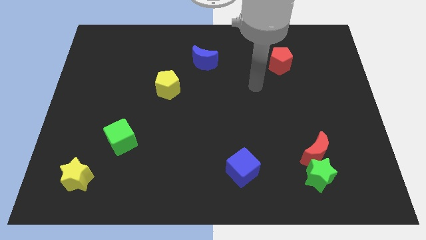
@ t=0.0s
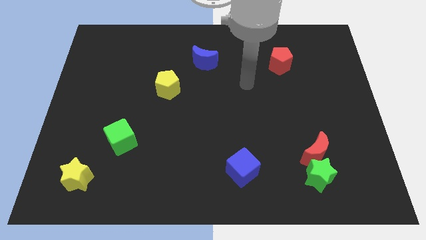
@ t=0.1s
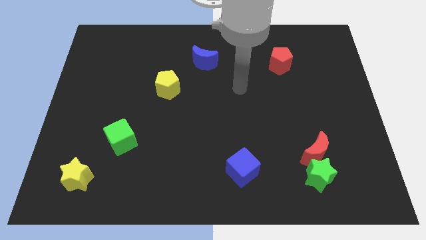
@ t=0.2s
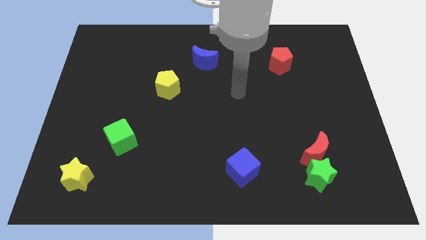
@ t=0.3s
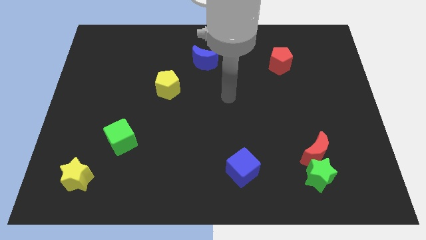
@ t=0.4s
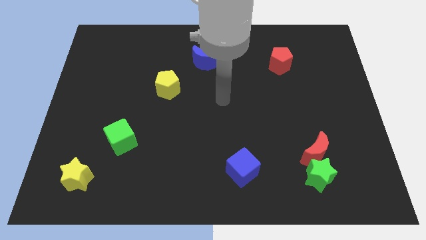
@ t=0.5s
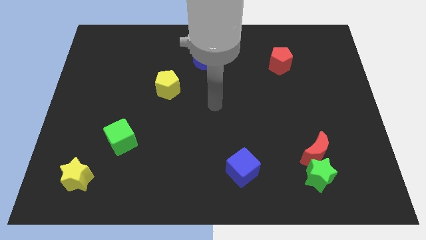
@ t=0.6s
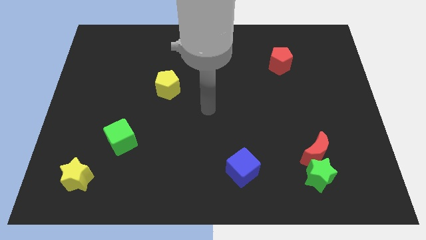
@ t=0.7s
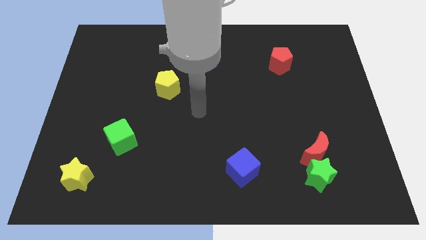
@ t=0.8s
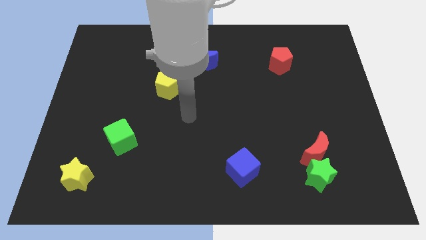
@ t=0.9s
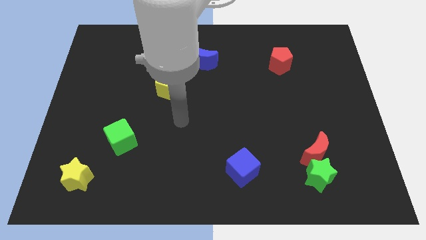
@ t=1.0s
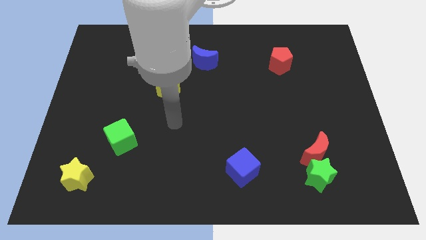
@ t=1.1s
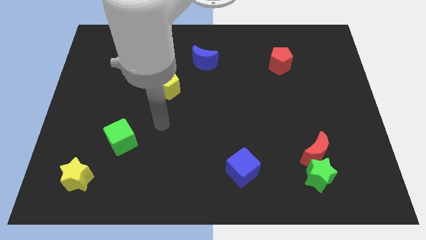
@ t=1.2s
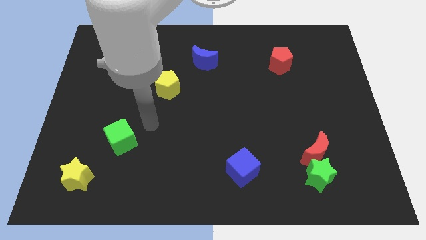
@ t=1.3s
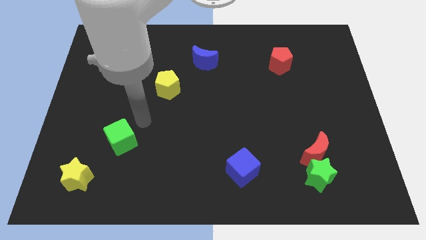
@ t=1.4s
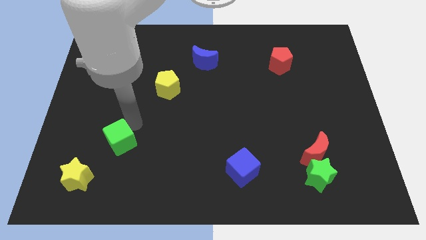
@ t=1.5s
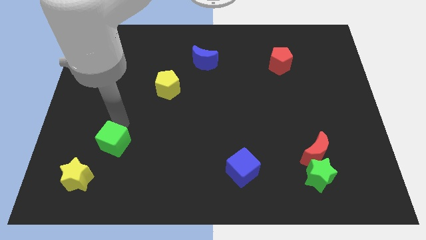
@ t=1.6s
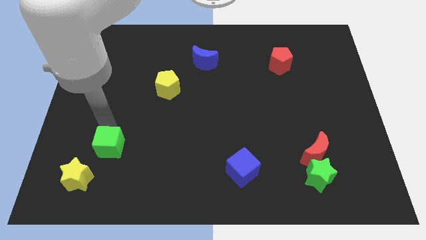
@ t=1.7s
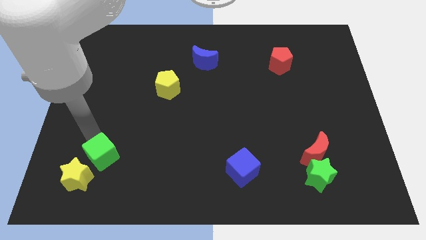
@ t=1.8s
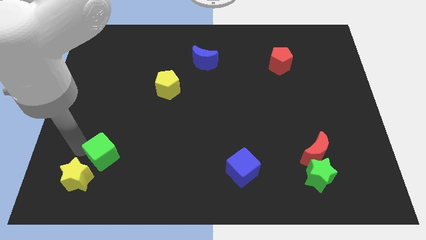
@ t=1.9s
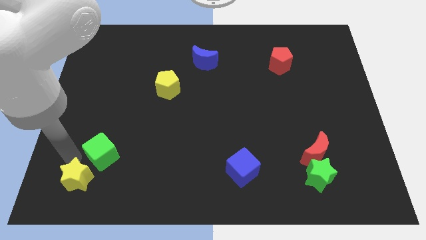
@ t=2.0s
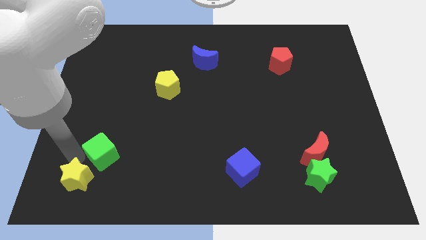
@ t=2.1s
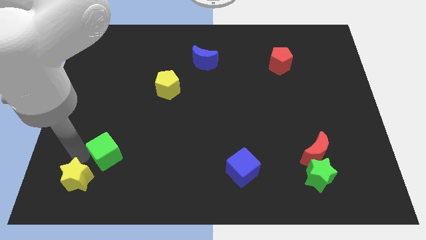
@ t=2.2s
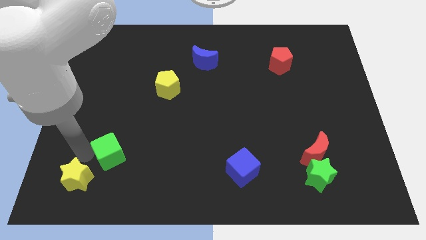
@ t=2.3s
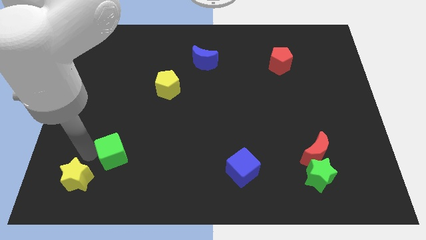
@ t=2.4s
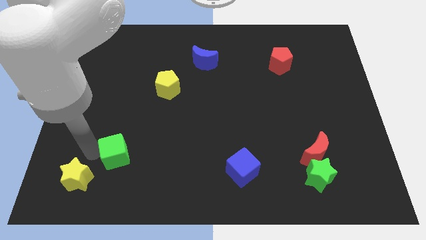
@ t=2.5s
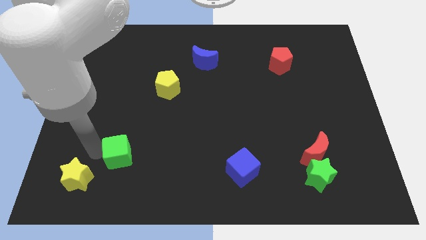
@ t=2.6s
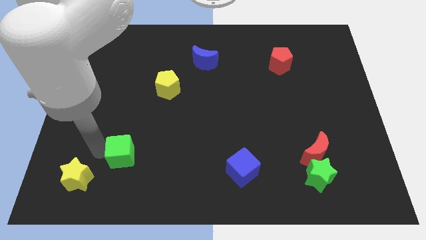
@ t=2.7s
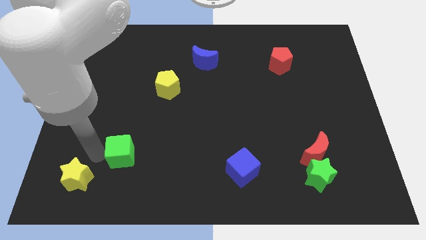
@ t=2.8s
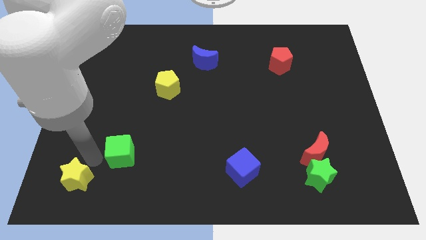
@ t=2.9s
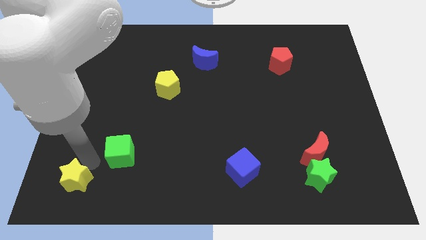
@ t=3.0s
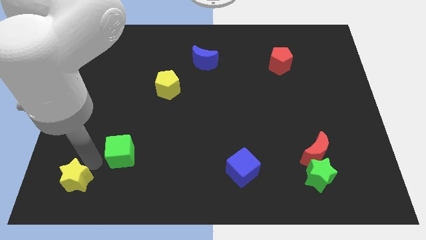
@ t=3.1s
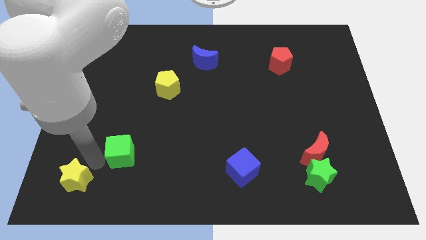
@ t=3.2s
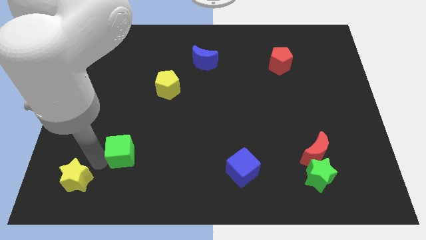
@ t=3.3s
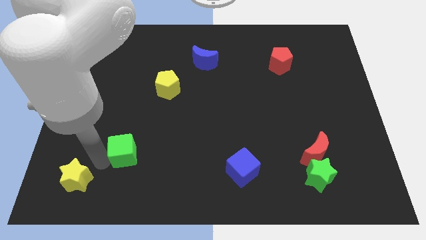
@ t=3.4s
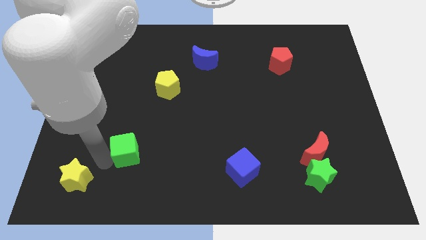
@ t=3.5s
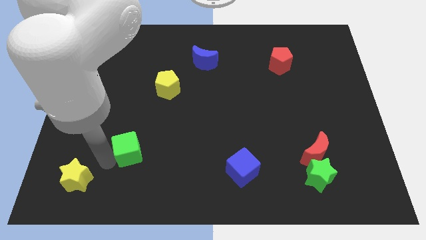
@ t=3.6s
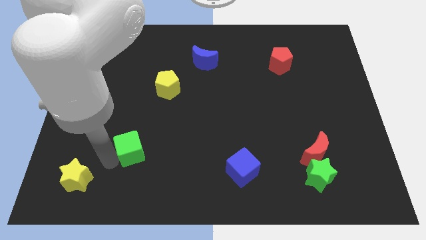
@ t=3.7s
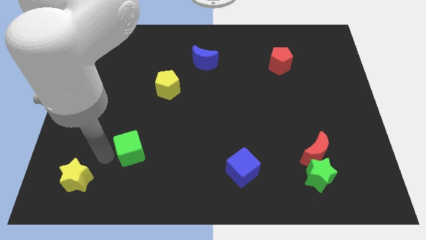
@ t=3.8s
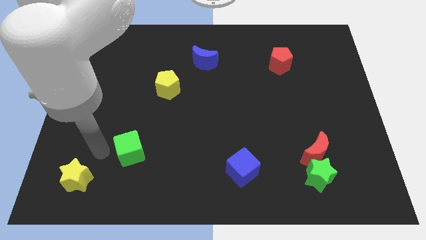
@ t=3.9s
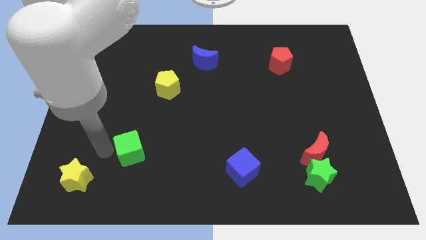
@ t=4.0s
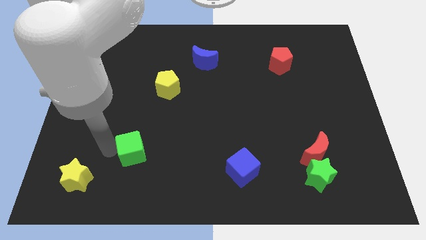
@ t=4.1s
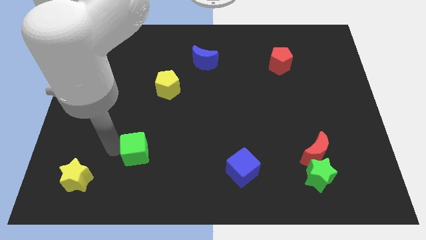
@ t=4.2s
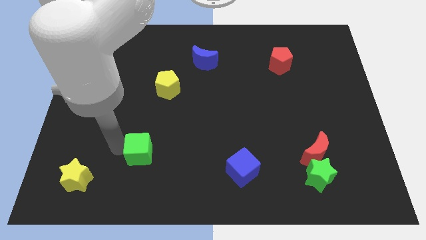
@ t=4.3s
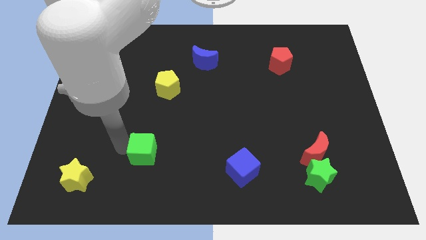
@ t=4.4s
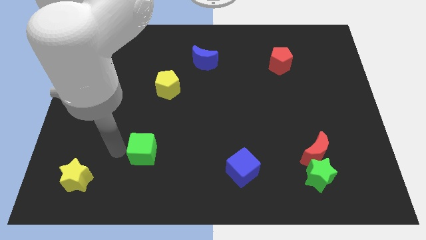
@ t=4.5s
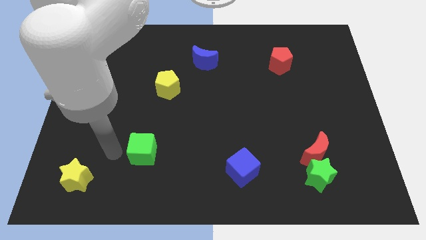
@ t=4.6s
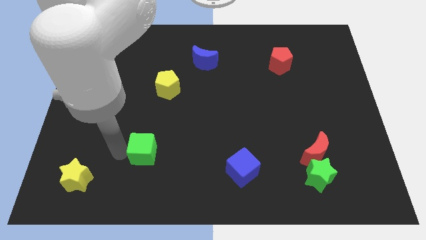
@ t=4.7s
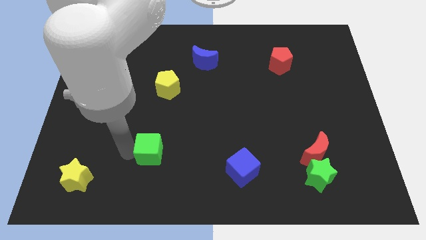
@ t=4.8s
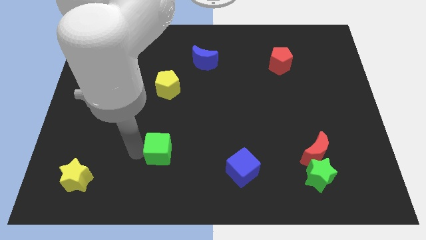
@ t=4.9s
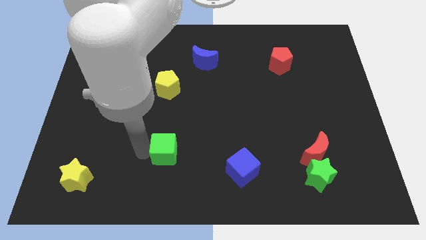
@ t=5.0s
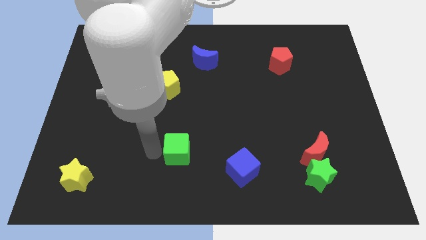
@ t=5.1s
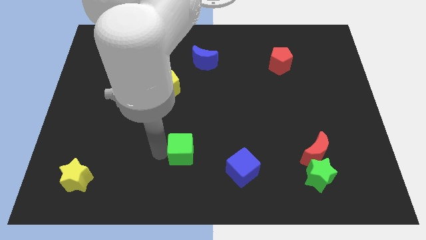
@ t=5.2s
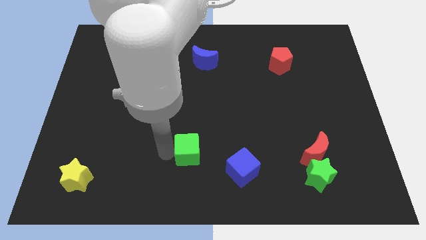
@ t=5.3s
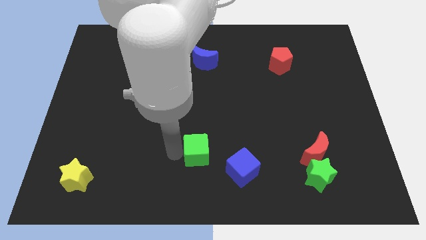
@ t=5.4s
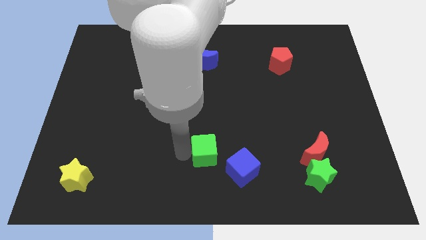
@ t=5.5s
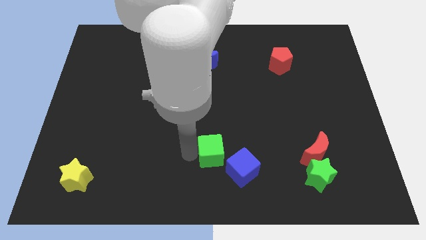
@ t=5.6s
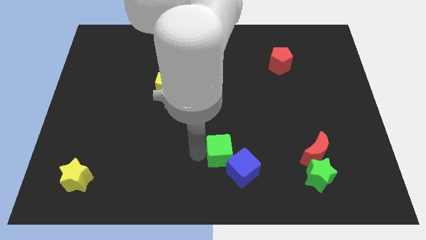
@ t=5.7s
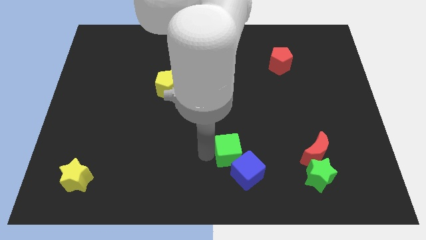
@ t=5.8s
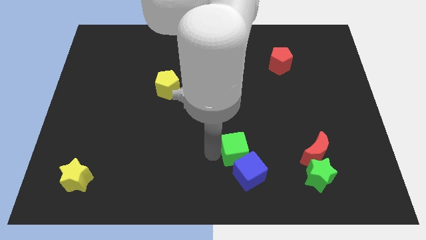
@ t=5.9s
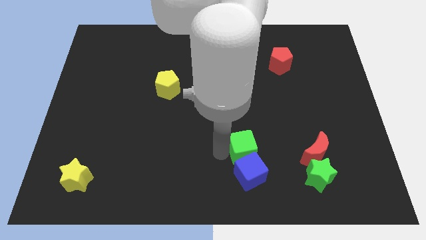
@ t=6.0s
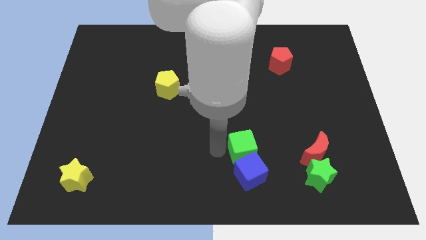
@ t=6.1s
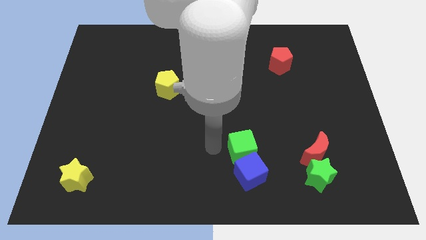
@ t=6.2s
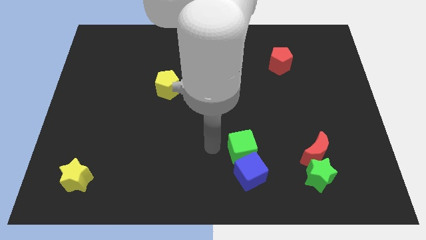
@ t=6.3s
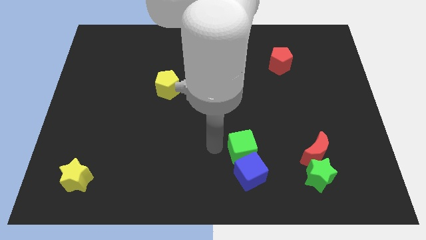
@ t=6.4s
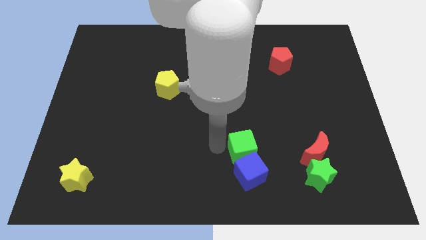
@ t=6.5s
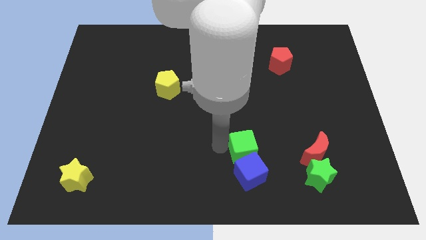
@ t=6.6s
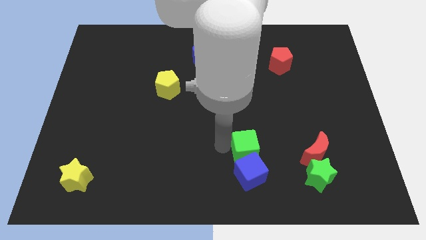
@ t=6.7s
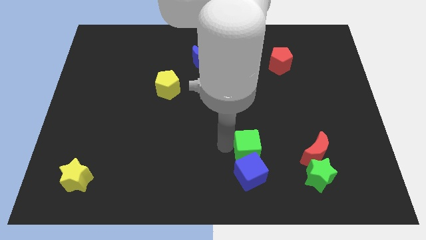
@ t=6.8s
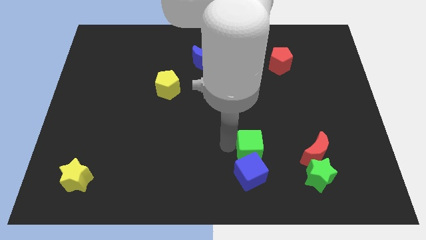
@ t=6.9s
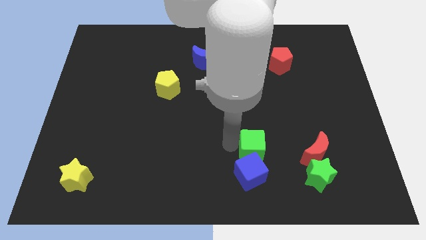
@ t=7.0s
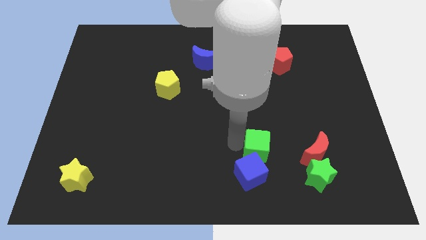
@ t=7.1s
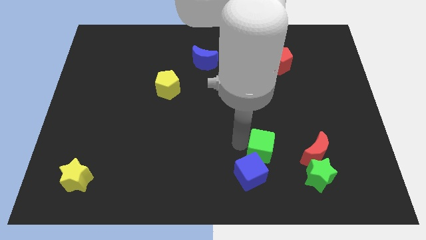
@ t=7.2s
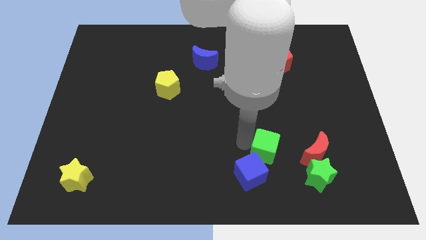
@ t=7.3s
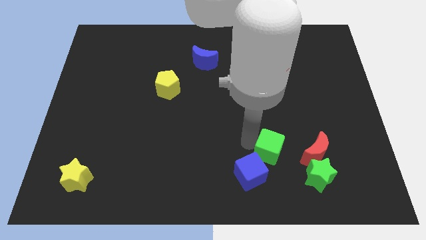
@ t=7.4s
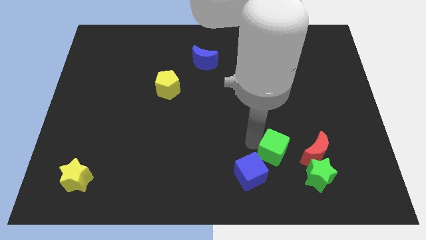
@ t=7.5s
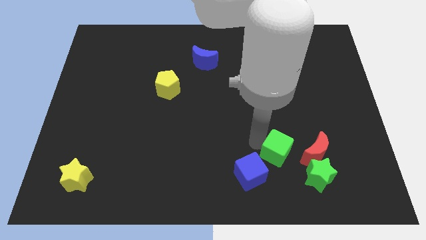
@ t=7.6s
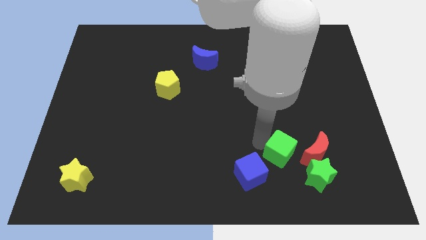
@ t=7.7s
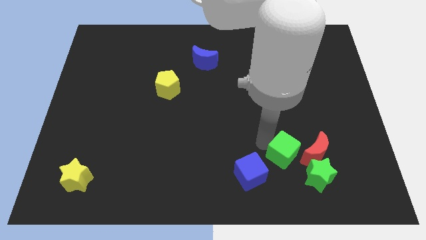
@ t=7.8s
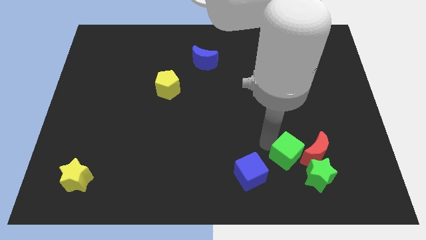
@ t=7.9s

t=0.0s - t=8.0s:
put the green cube to the bottom left side of the red moon
